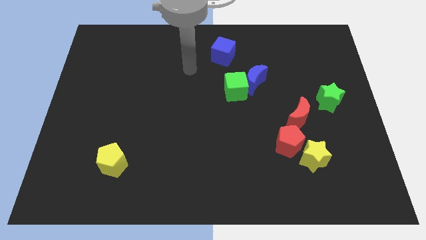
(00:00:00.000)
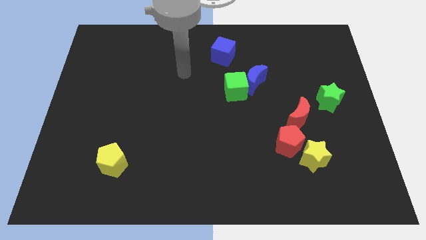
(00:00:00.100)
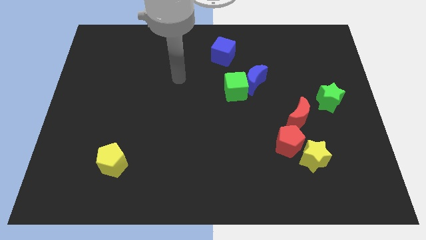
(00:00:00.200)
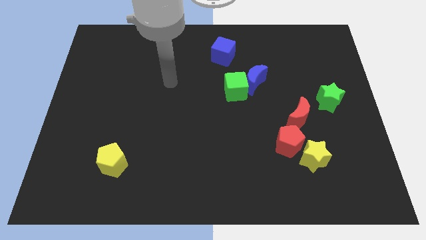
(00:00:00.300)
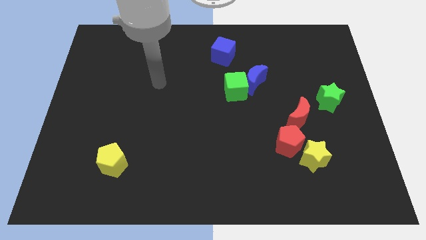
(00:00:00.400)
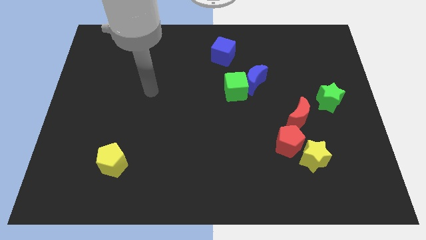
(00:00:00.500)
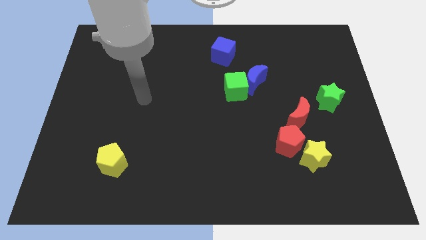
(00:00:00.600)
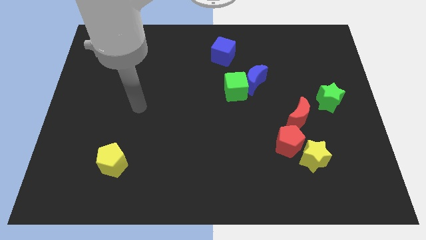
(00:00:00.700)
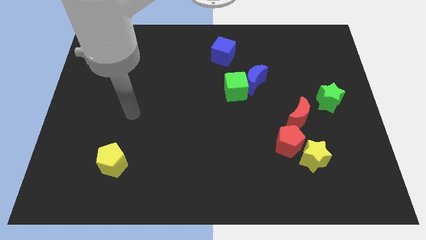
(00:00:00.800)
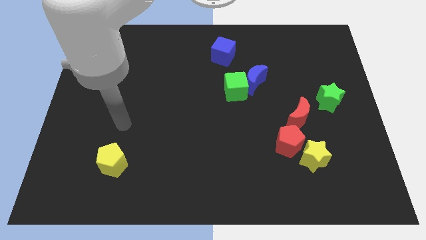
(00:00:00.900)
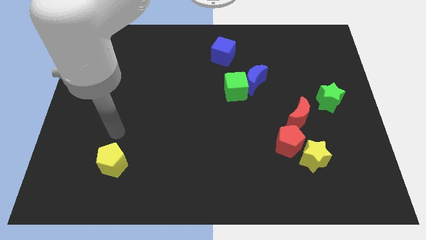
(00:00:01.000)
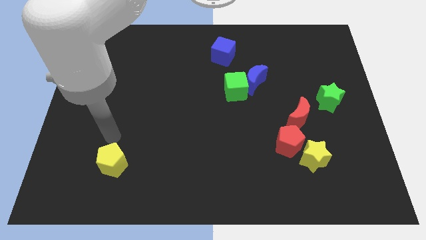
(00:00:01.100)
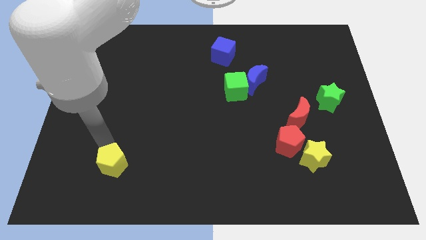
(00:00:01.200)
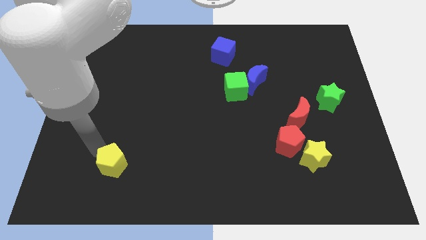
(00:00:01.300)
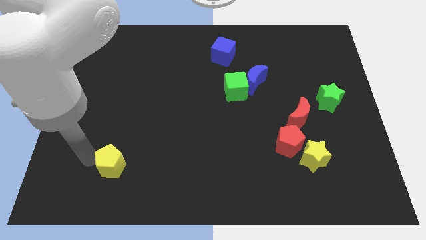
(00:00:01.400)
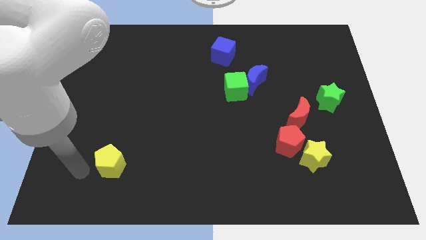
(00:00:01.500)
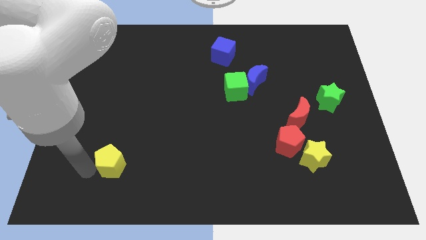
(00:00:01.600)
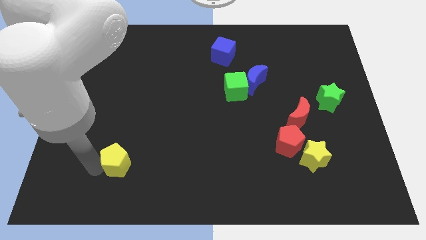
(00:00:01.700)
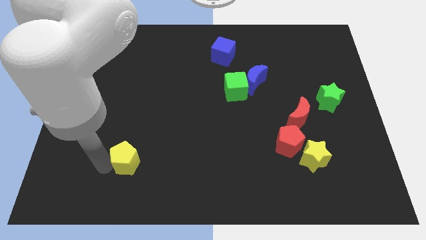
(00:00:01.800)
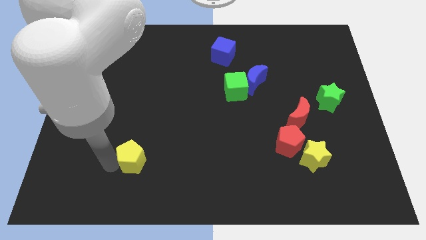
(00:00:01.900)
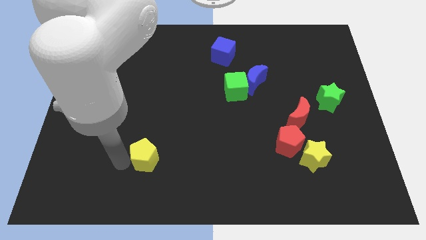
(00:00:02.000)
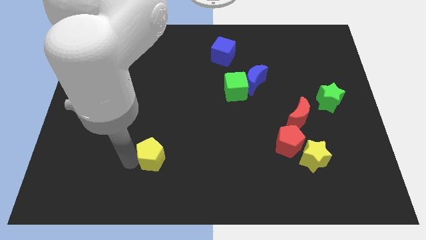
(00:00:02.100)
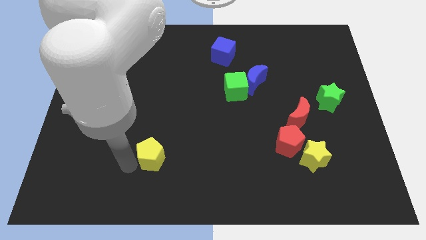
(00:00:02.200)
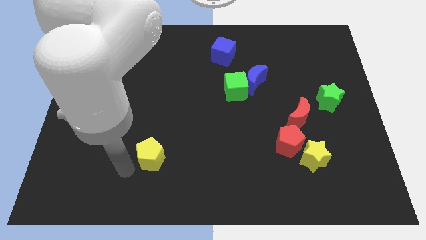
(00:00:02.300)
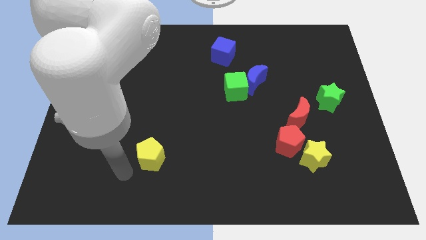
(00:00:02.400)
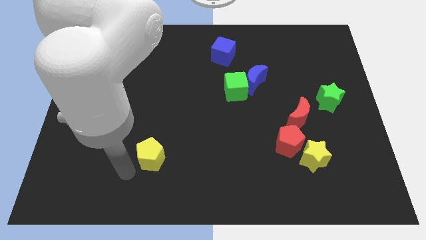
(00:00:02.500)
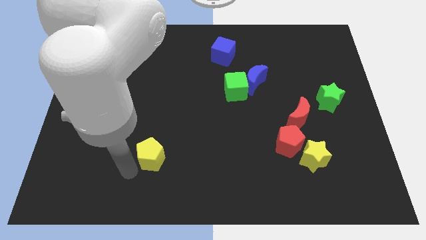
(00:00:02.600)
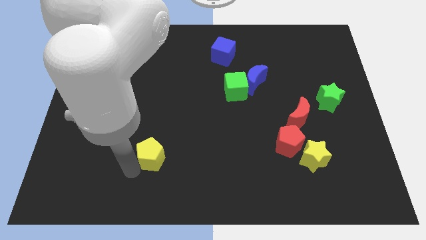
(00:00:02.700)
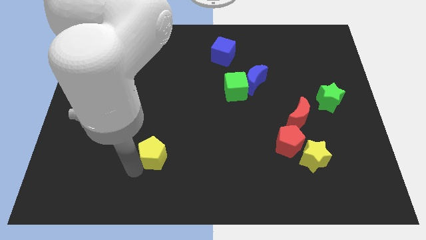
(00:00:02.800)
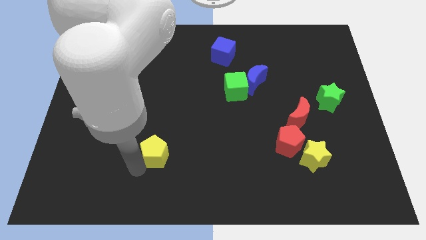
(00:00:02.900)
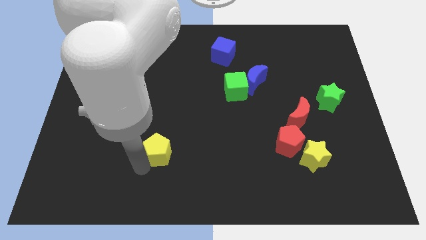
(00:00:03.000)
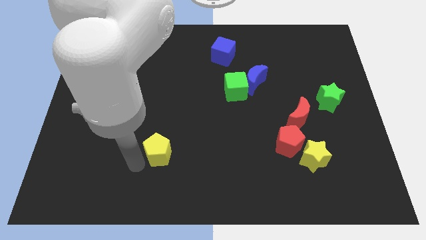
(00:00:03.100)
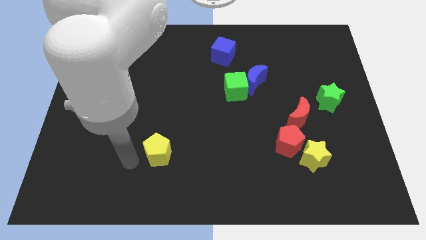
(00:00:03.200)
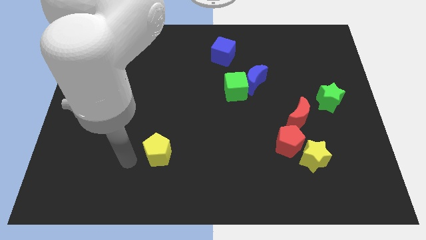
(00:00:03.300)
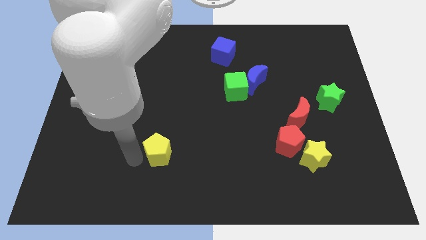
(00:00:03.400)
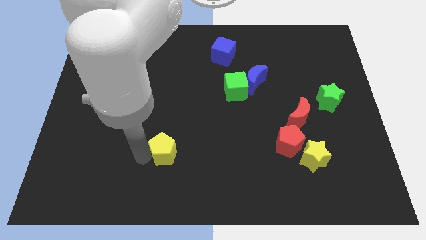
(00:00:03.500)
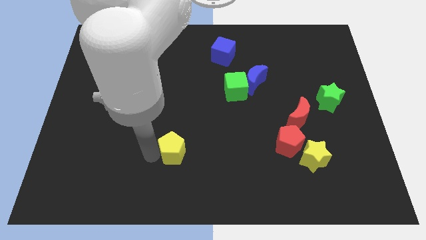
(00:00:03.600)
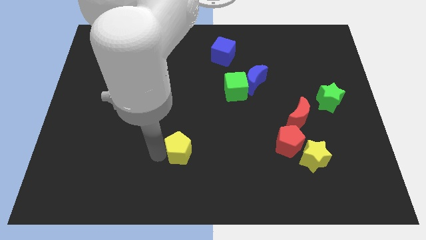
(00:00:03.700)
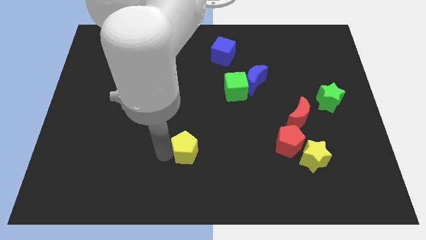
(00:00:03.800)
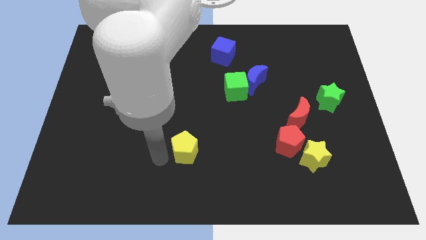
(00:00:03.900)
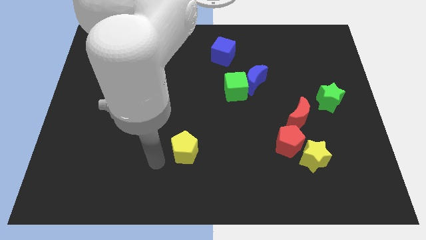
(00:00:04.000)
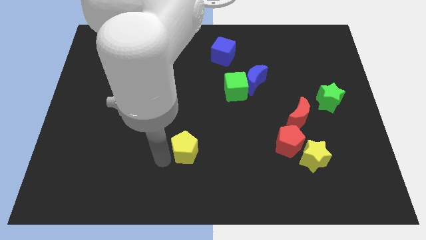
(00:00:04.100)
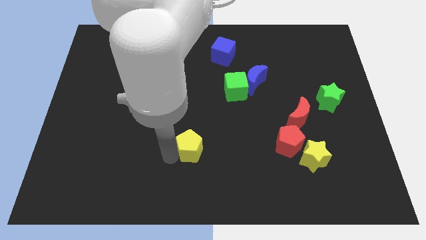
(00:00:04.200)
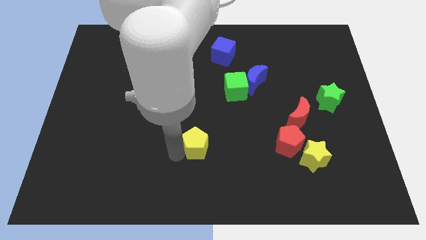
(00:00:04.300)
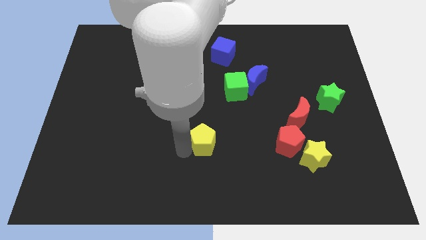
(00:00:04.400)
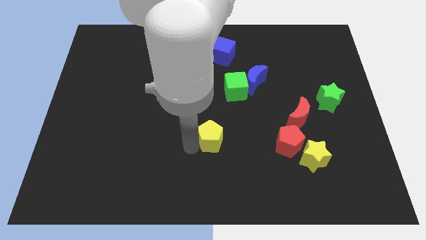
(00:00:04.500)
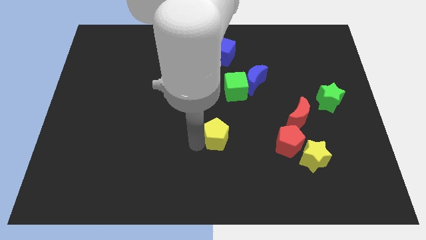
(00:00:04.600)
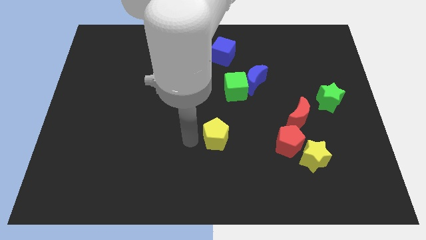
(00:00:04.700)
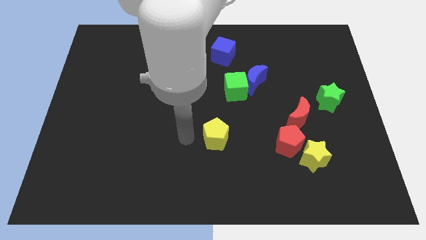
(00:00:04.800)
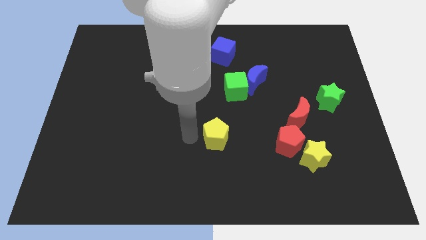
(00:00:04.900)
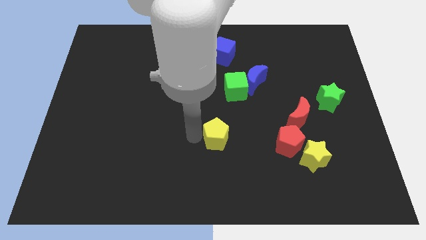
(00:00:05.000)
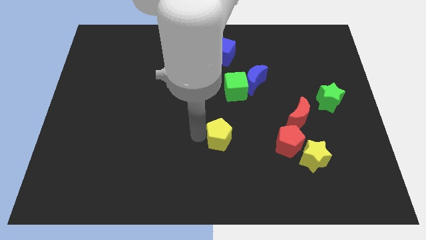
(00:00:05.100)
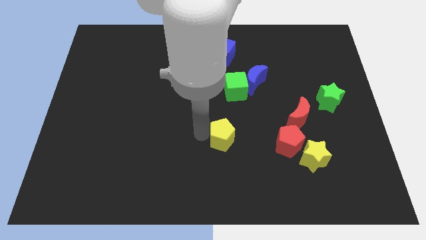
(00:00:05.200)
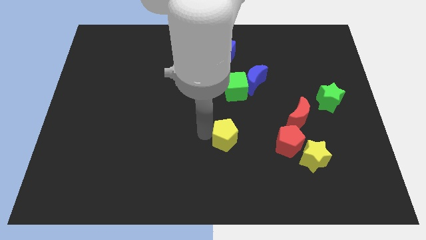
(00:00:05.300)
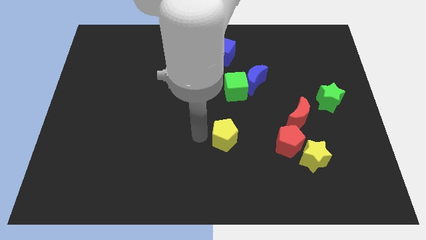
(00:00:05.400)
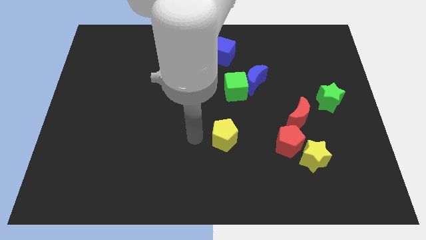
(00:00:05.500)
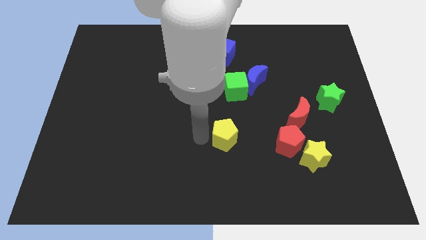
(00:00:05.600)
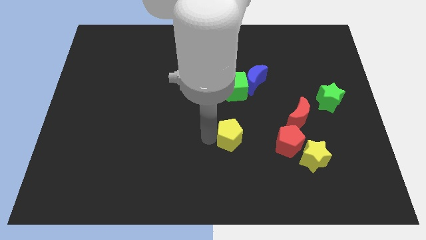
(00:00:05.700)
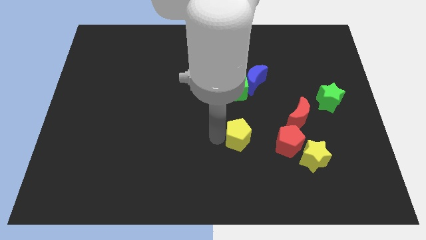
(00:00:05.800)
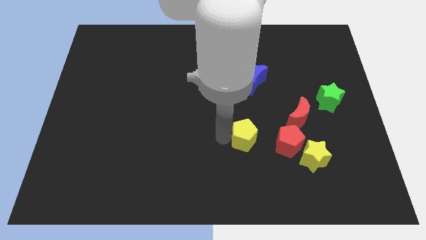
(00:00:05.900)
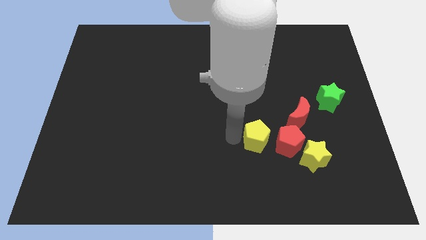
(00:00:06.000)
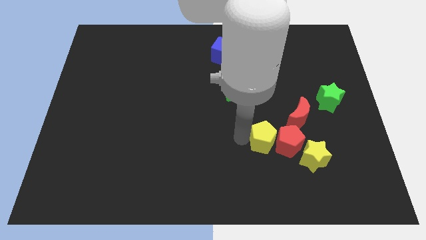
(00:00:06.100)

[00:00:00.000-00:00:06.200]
push the yellow pentagon to the top left side of the yellow star

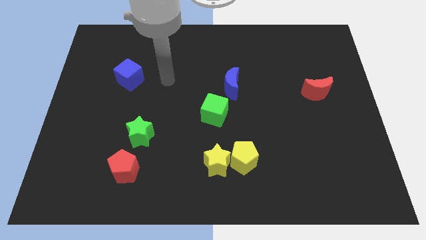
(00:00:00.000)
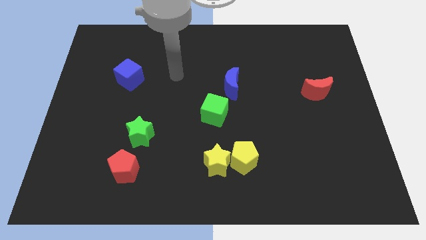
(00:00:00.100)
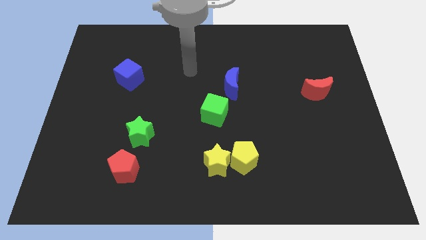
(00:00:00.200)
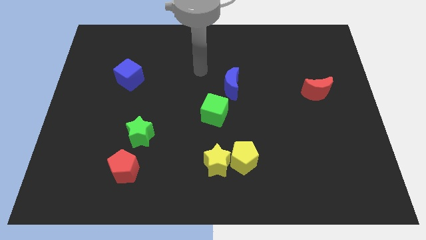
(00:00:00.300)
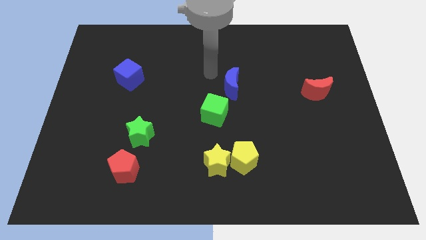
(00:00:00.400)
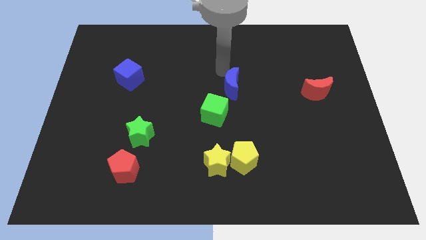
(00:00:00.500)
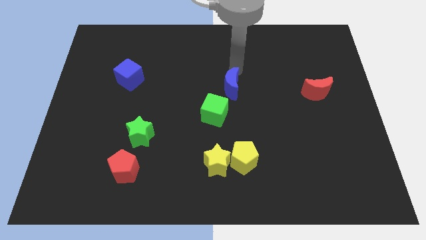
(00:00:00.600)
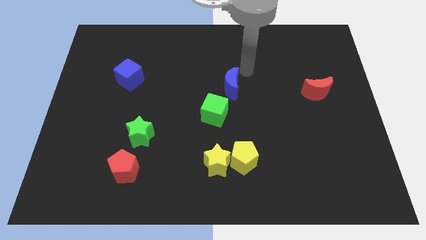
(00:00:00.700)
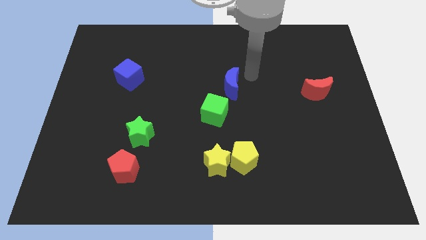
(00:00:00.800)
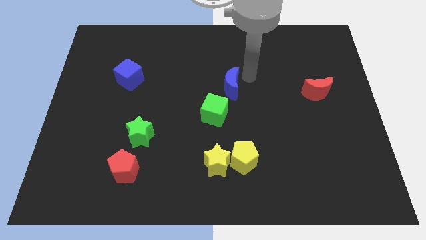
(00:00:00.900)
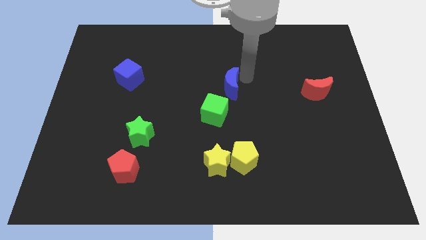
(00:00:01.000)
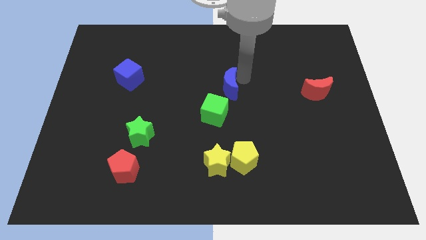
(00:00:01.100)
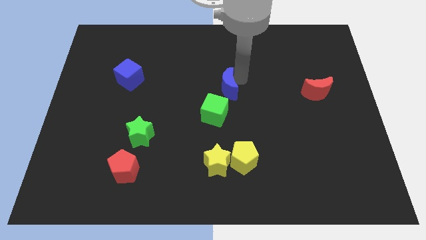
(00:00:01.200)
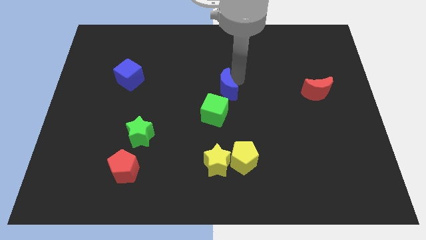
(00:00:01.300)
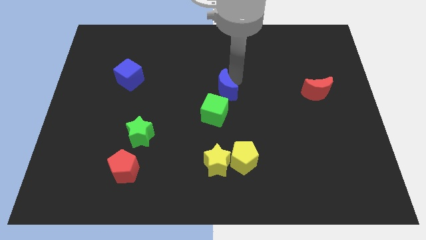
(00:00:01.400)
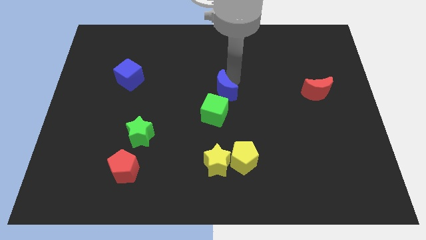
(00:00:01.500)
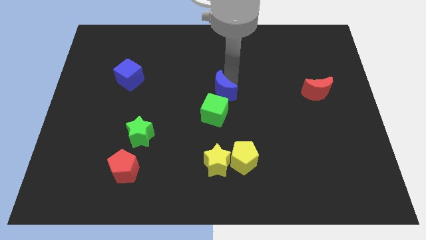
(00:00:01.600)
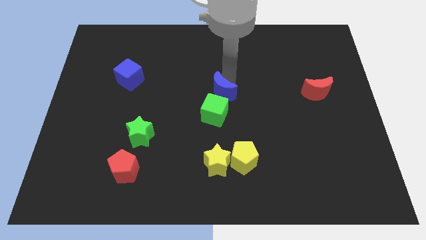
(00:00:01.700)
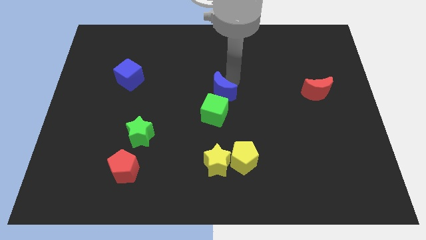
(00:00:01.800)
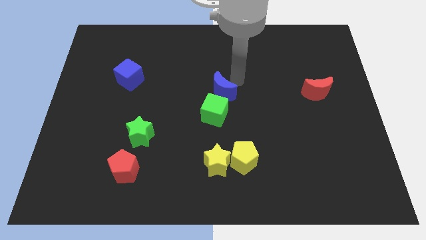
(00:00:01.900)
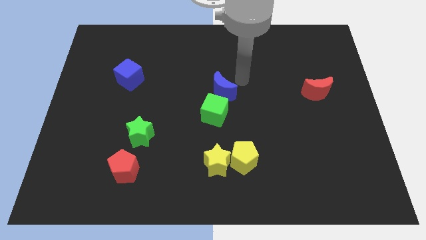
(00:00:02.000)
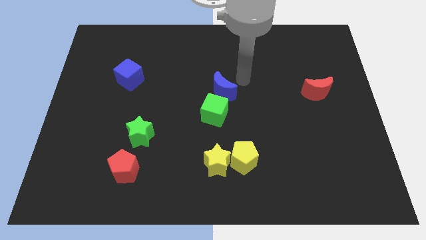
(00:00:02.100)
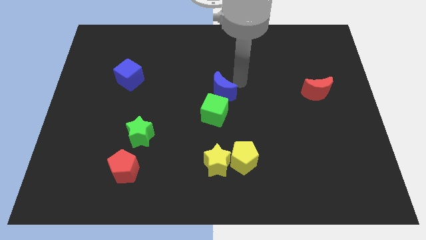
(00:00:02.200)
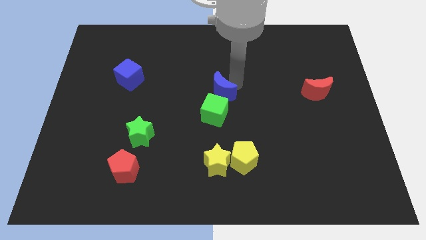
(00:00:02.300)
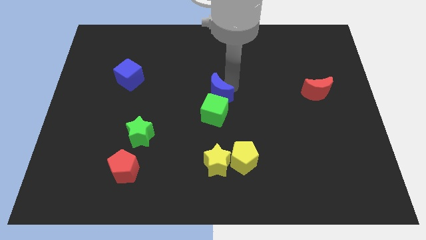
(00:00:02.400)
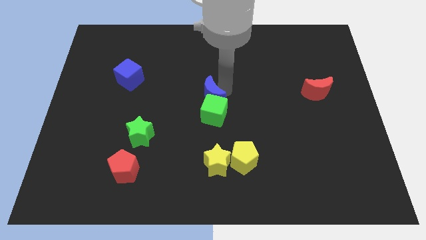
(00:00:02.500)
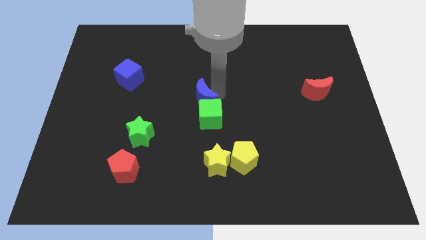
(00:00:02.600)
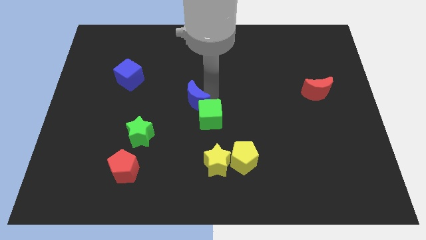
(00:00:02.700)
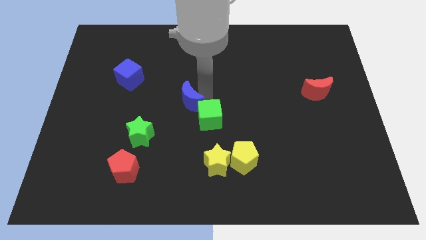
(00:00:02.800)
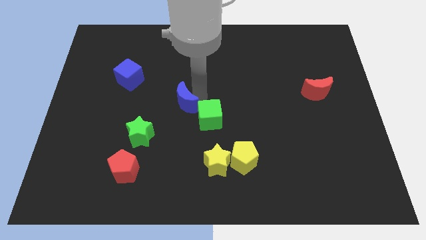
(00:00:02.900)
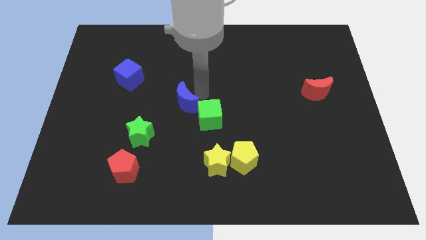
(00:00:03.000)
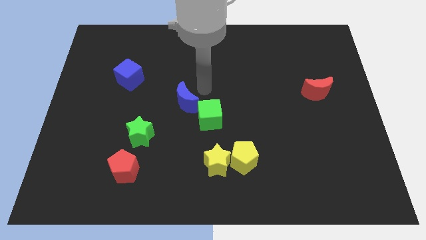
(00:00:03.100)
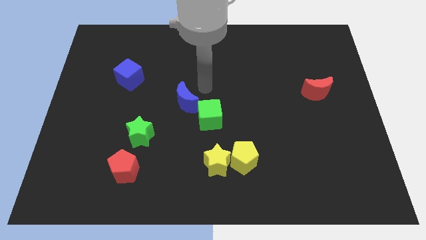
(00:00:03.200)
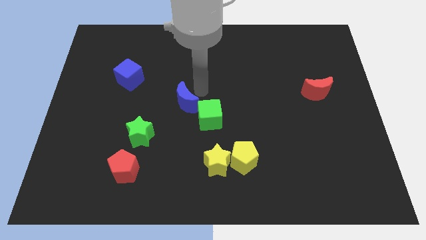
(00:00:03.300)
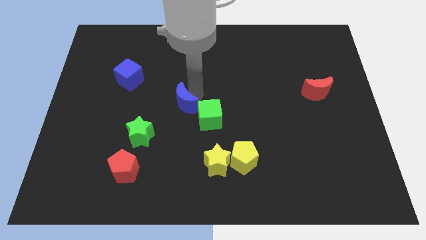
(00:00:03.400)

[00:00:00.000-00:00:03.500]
push the blue moon to the top right side of the green star
